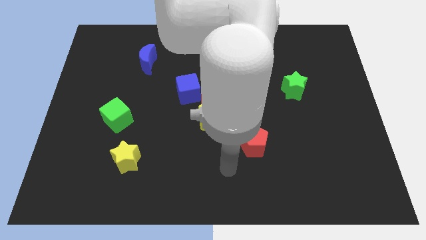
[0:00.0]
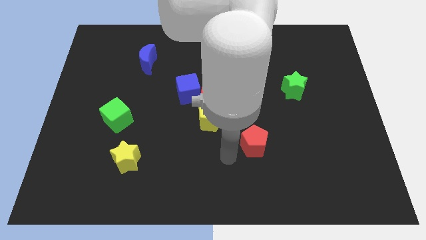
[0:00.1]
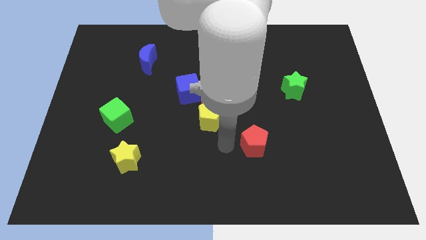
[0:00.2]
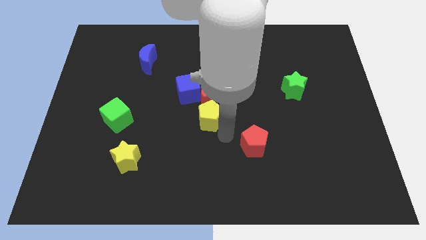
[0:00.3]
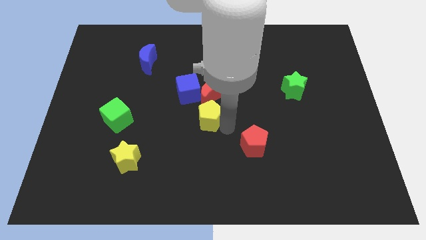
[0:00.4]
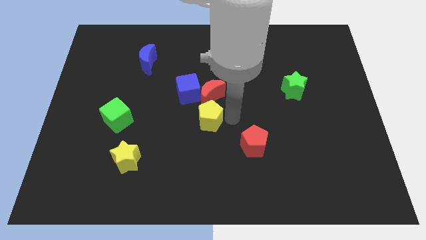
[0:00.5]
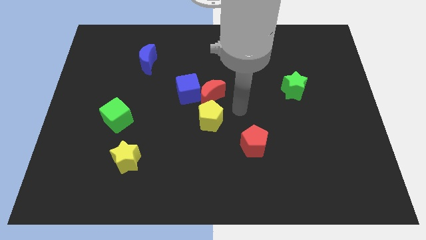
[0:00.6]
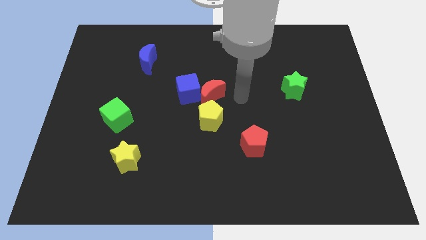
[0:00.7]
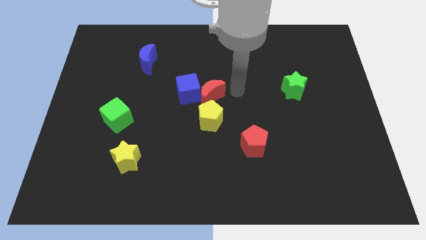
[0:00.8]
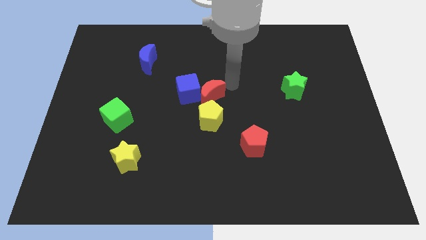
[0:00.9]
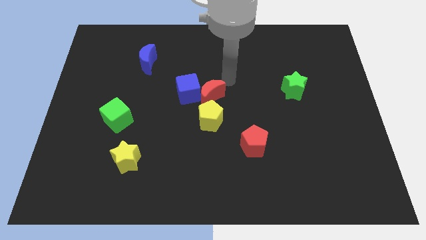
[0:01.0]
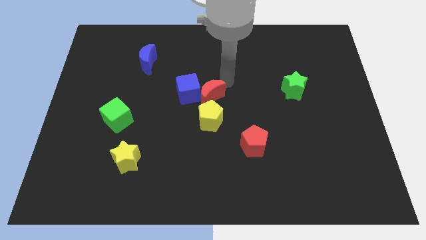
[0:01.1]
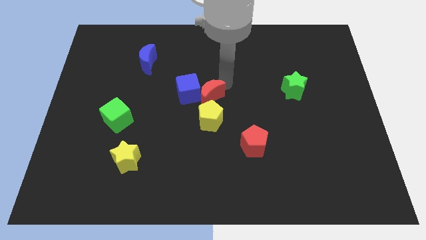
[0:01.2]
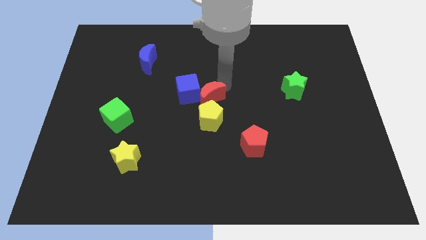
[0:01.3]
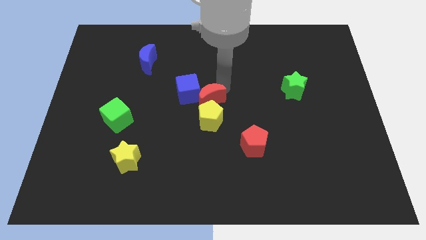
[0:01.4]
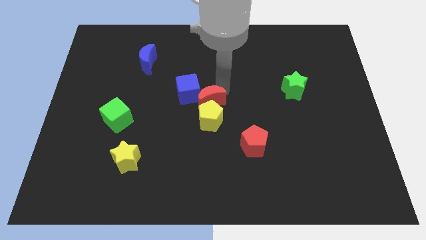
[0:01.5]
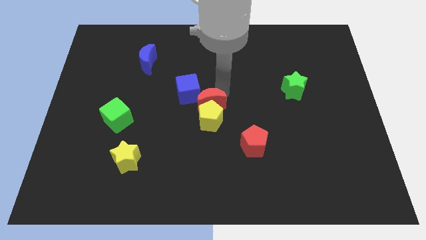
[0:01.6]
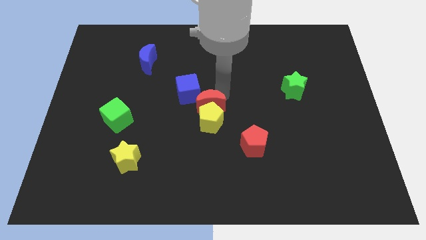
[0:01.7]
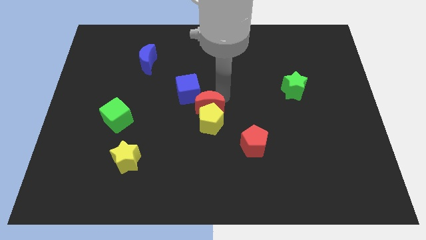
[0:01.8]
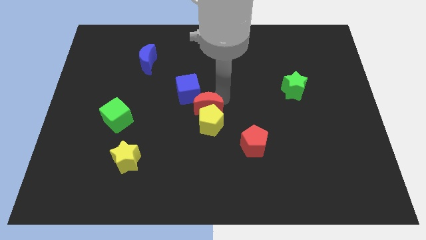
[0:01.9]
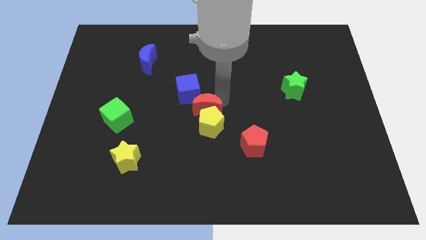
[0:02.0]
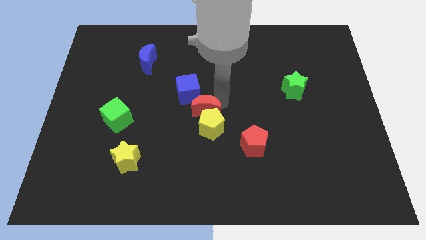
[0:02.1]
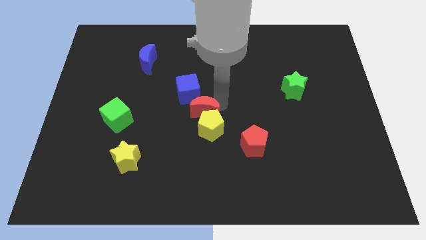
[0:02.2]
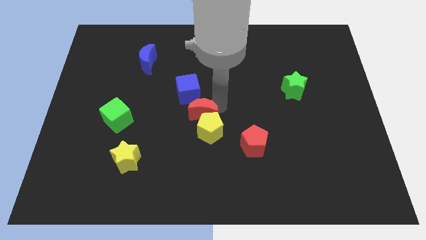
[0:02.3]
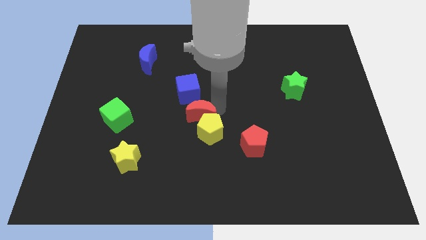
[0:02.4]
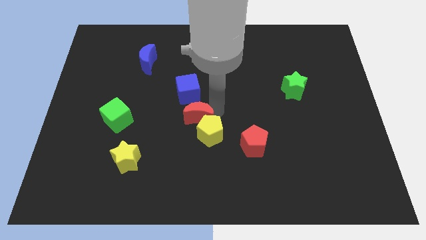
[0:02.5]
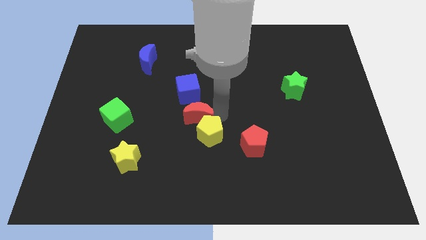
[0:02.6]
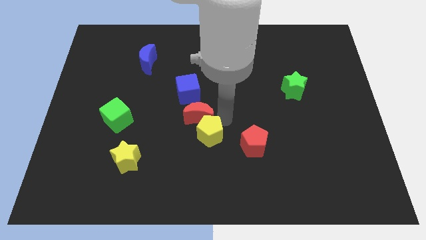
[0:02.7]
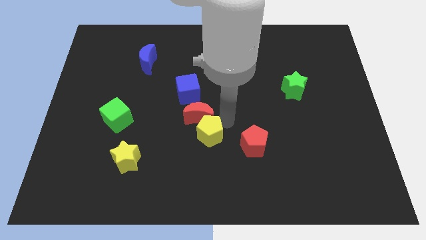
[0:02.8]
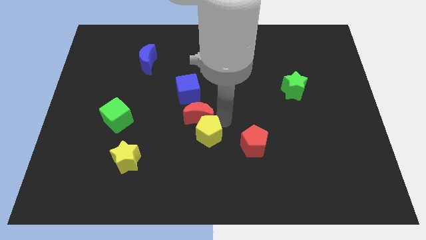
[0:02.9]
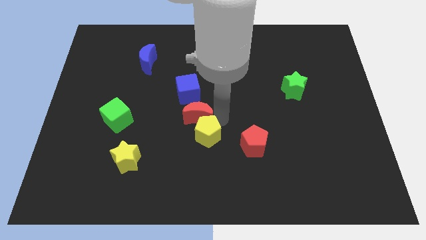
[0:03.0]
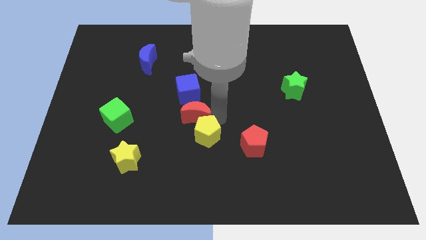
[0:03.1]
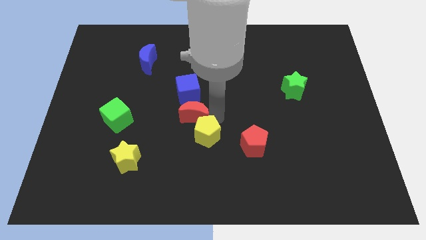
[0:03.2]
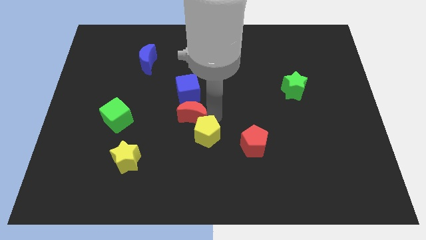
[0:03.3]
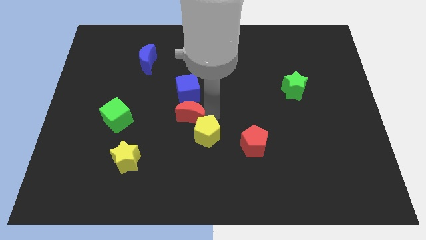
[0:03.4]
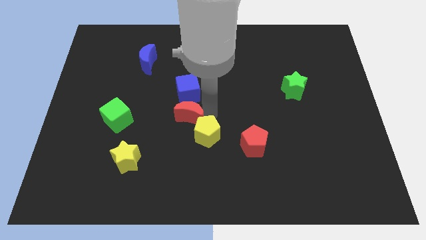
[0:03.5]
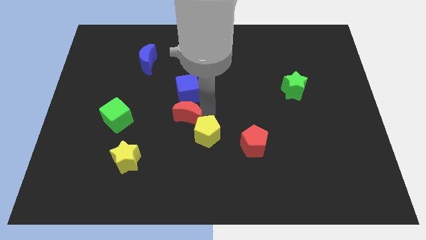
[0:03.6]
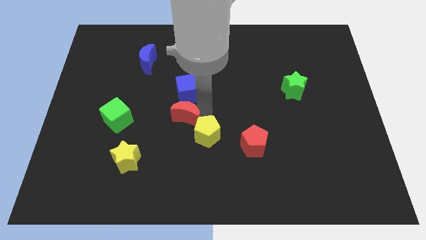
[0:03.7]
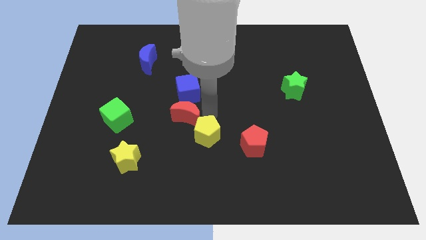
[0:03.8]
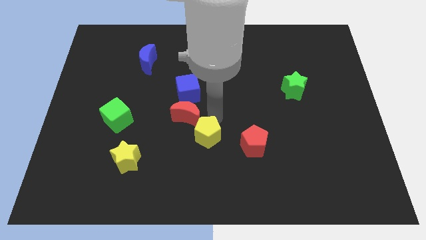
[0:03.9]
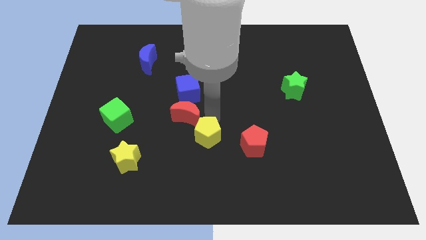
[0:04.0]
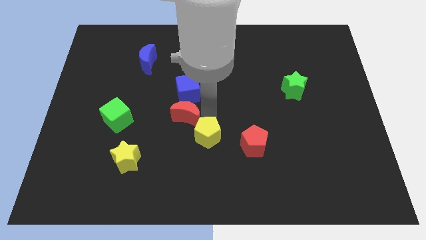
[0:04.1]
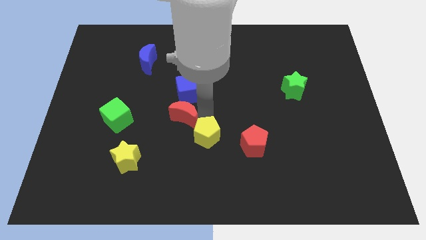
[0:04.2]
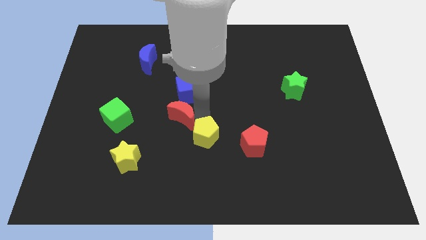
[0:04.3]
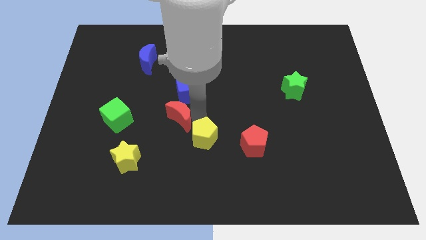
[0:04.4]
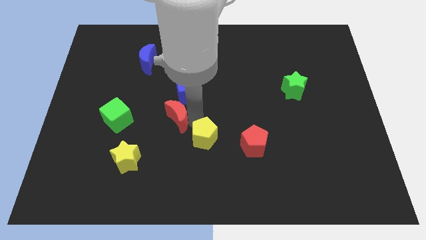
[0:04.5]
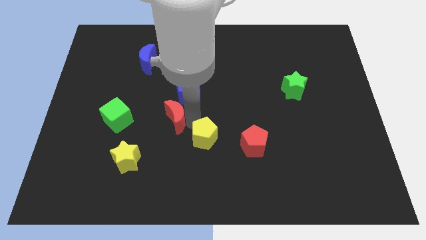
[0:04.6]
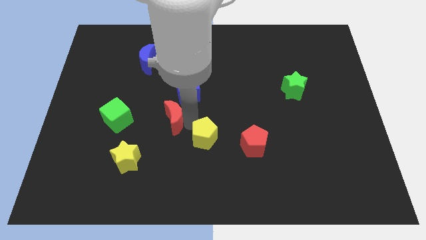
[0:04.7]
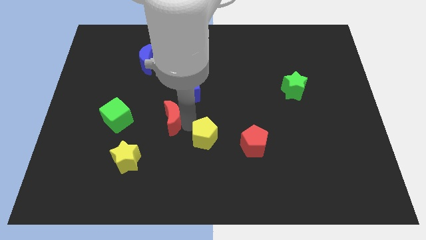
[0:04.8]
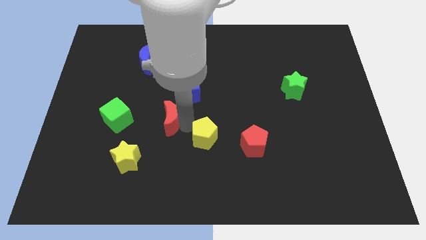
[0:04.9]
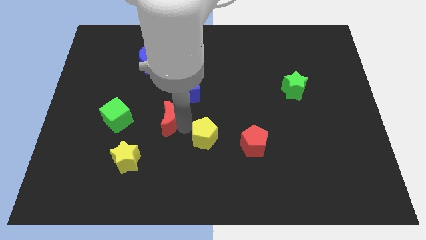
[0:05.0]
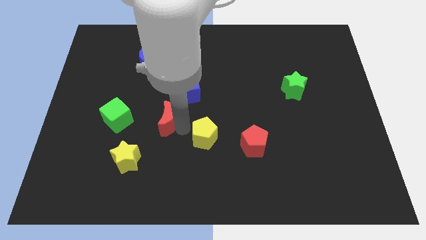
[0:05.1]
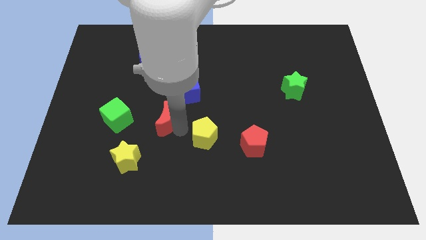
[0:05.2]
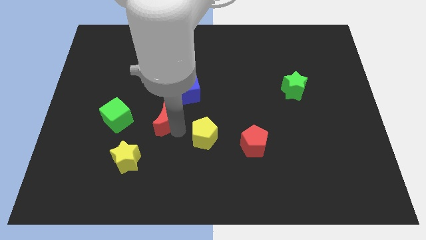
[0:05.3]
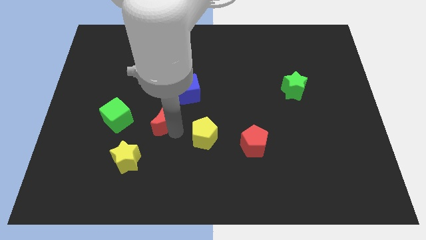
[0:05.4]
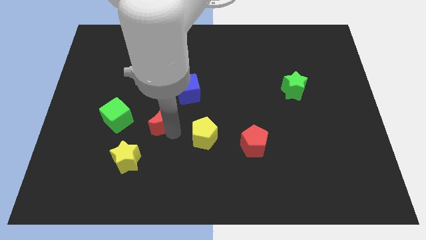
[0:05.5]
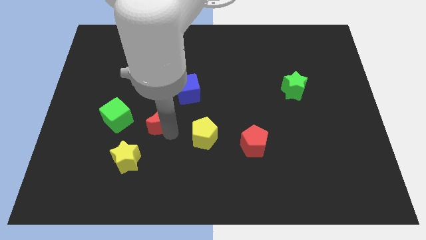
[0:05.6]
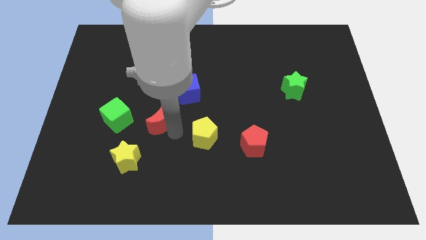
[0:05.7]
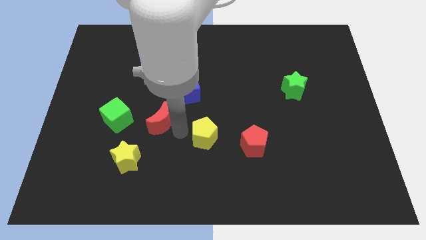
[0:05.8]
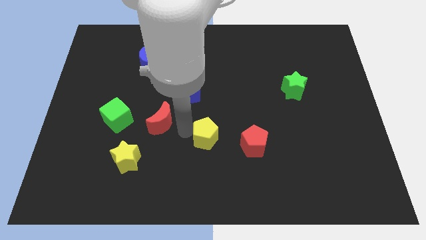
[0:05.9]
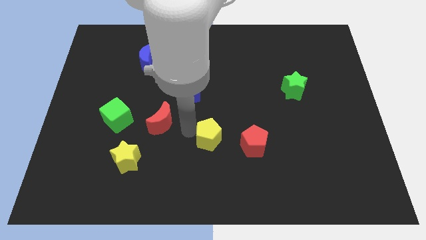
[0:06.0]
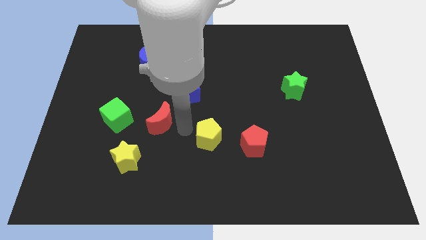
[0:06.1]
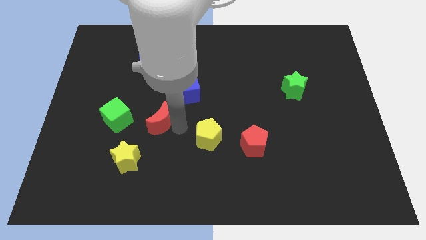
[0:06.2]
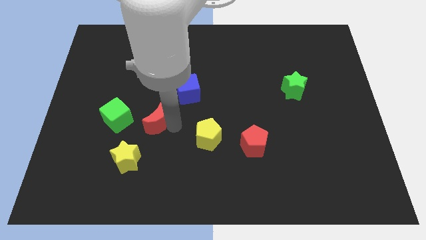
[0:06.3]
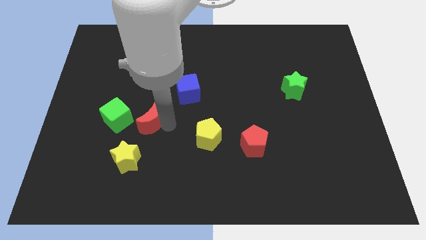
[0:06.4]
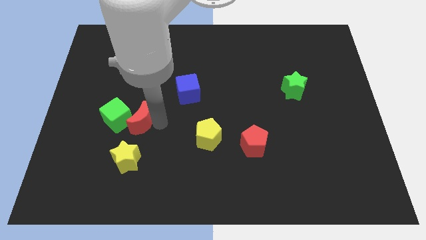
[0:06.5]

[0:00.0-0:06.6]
slide the red moon to the green cube

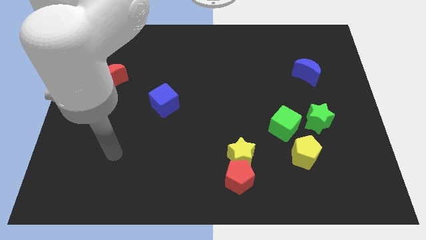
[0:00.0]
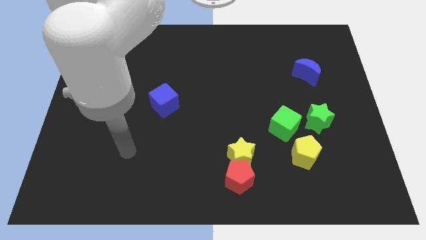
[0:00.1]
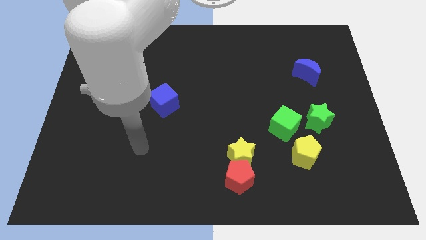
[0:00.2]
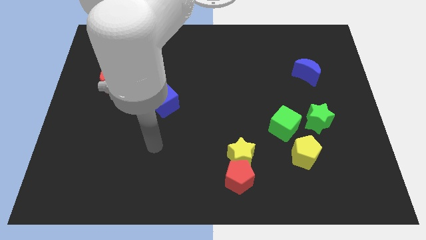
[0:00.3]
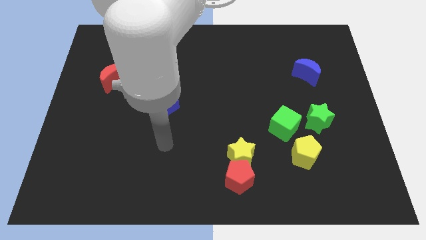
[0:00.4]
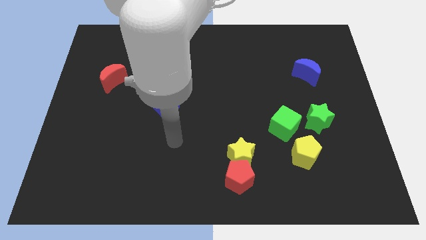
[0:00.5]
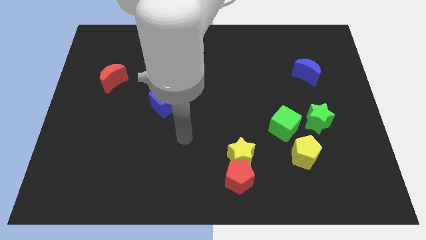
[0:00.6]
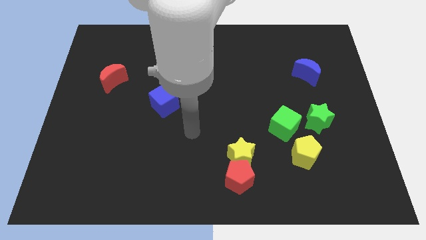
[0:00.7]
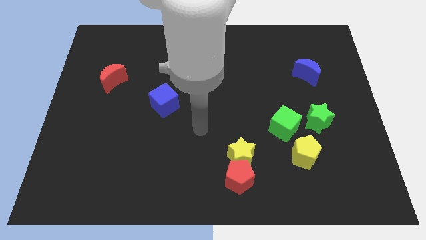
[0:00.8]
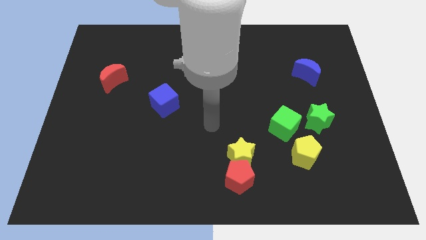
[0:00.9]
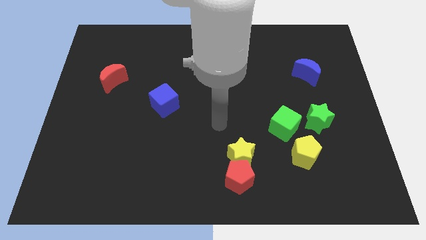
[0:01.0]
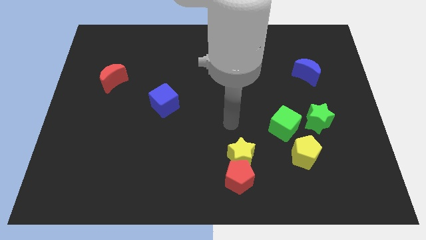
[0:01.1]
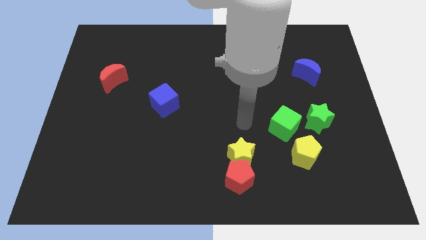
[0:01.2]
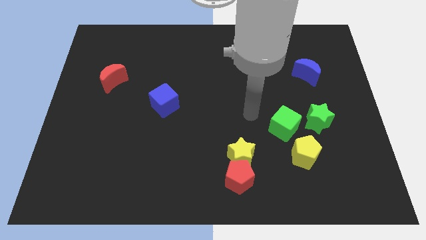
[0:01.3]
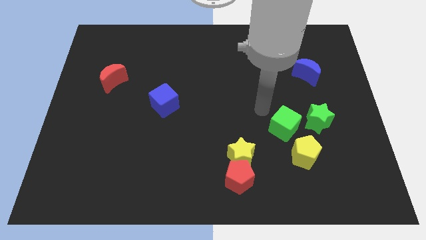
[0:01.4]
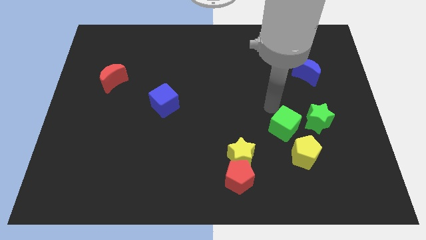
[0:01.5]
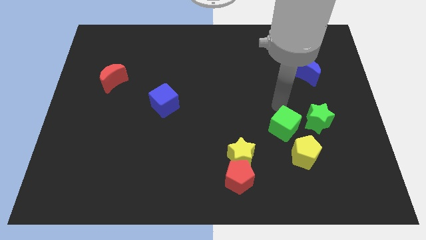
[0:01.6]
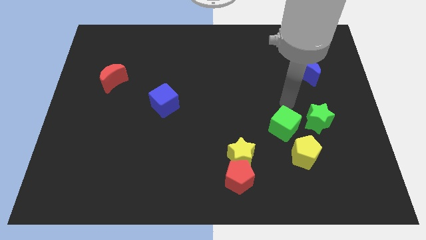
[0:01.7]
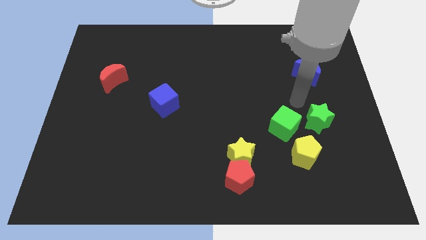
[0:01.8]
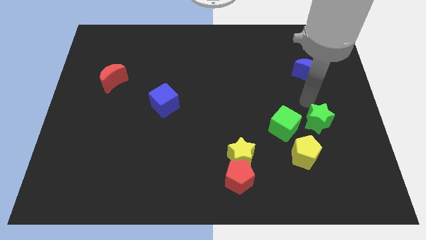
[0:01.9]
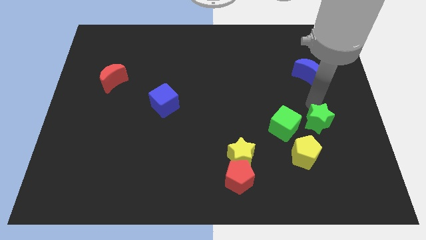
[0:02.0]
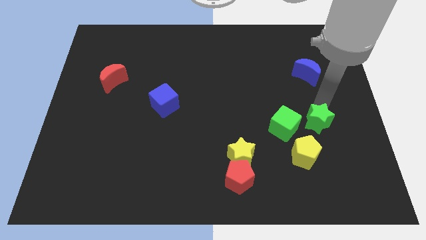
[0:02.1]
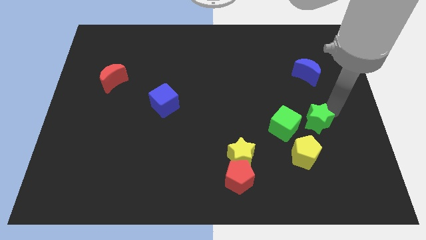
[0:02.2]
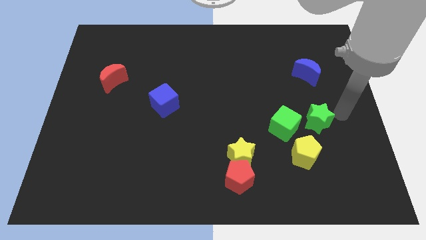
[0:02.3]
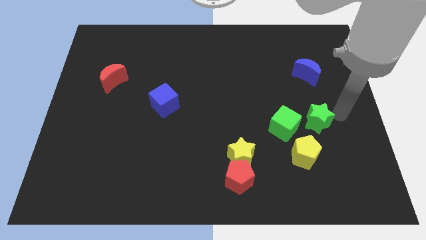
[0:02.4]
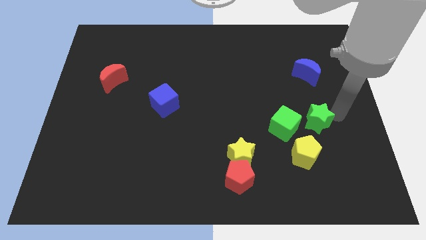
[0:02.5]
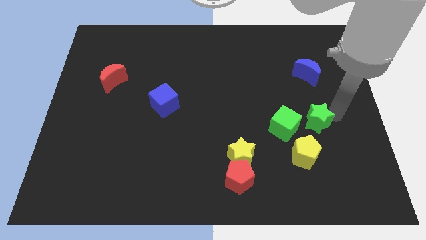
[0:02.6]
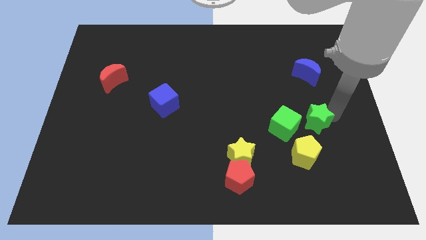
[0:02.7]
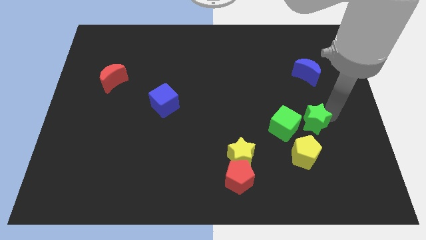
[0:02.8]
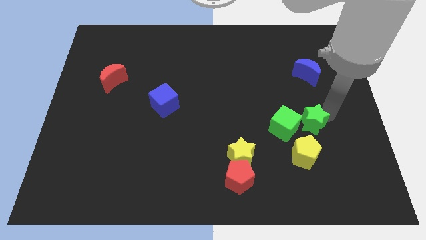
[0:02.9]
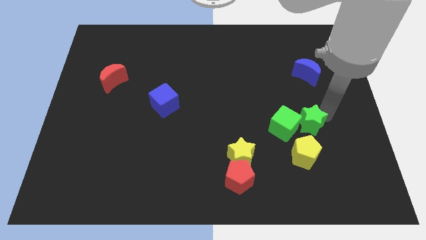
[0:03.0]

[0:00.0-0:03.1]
slide the green star to the green cube
